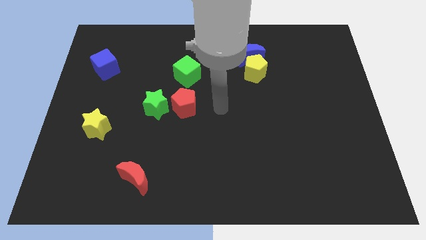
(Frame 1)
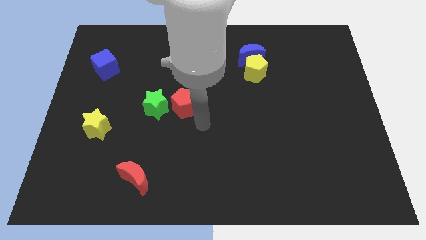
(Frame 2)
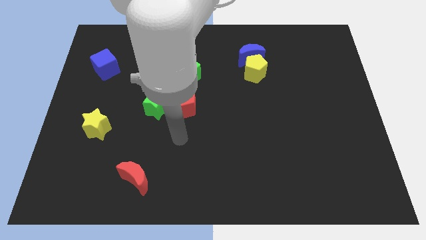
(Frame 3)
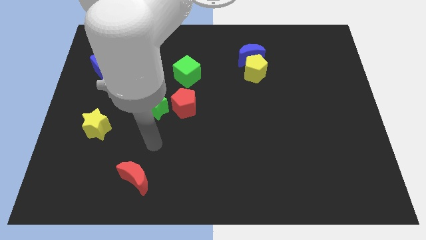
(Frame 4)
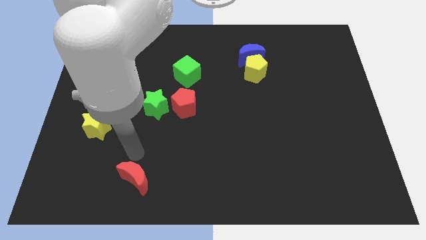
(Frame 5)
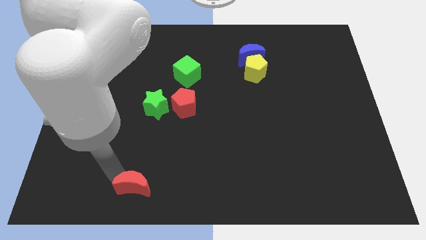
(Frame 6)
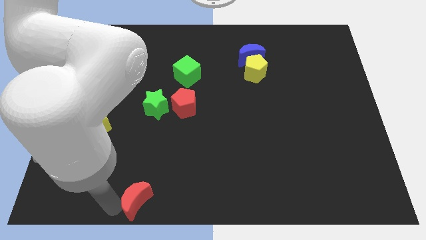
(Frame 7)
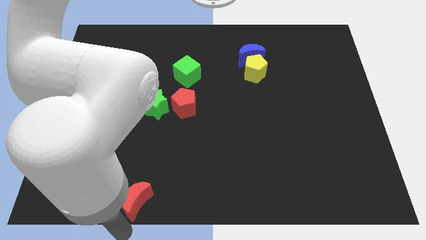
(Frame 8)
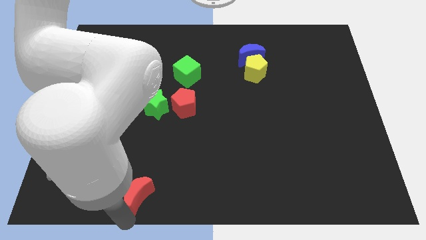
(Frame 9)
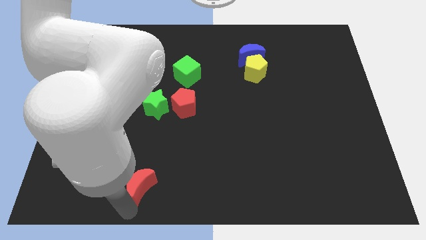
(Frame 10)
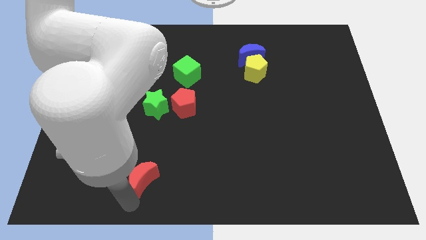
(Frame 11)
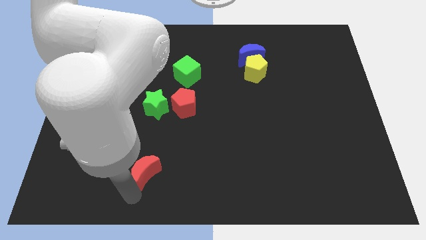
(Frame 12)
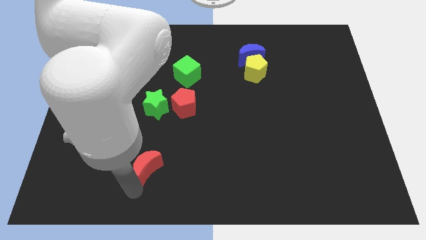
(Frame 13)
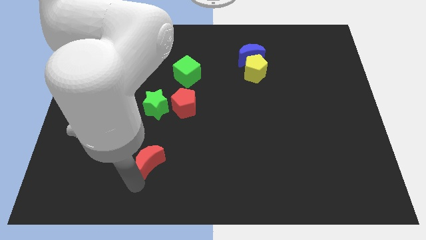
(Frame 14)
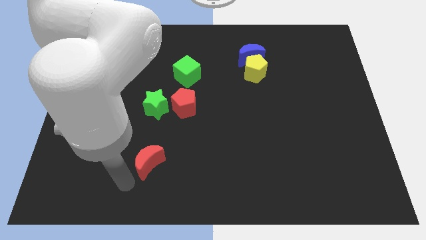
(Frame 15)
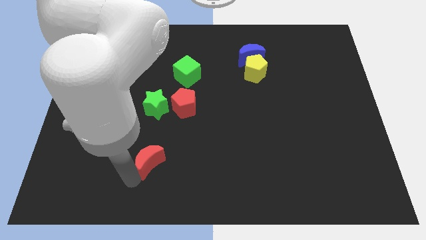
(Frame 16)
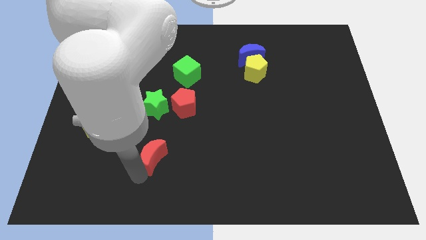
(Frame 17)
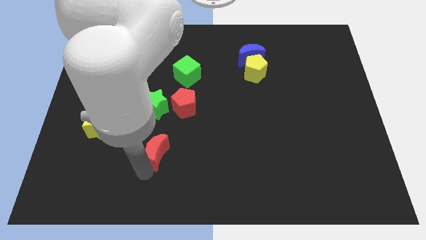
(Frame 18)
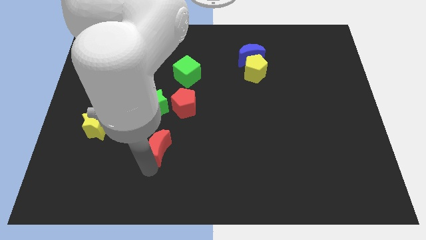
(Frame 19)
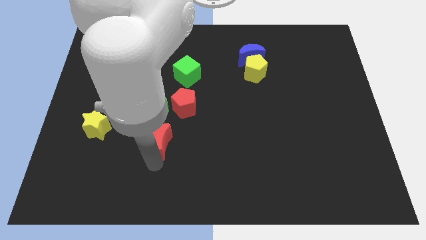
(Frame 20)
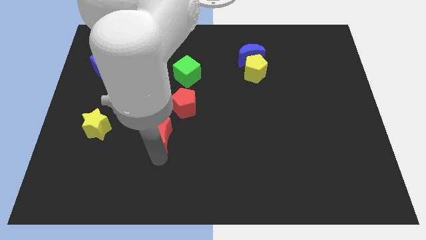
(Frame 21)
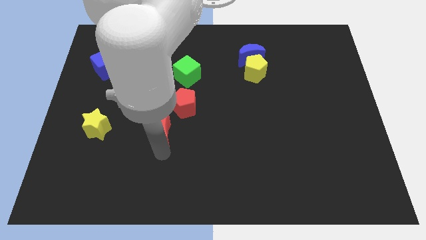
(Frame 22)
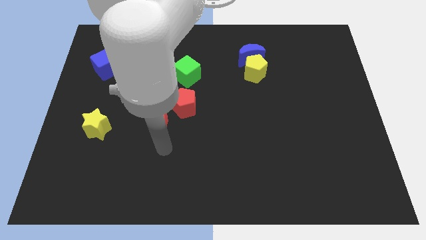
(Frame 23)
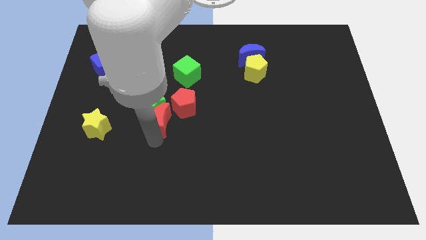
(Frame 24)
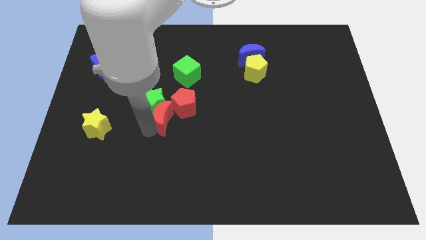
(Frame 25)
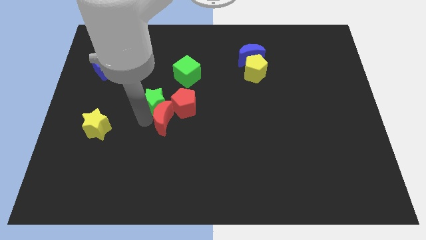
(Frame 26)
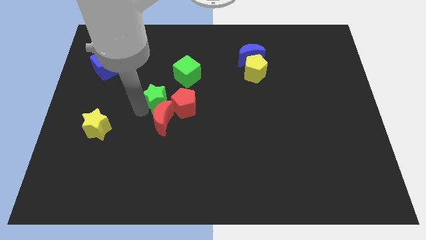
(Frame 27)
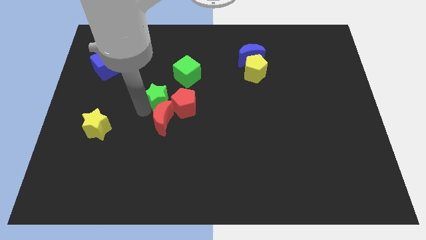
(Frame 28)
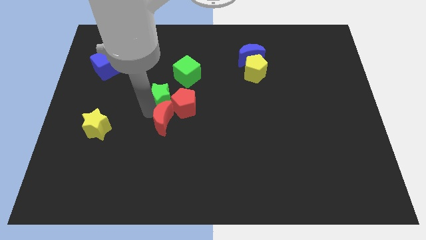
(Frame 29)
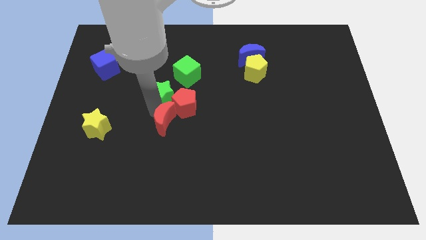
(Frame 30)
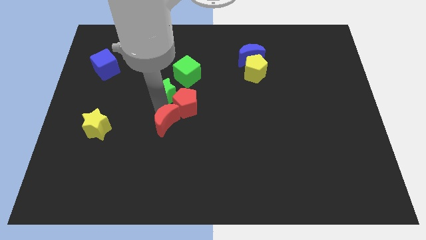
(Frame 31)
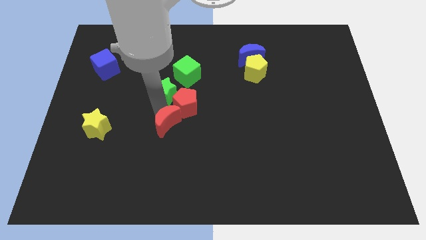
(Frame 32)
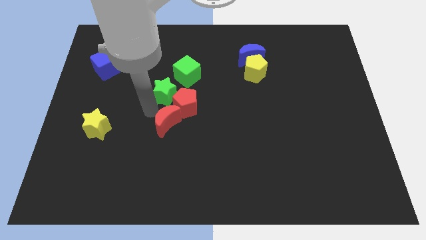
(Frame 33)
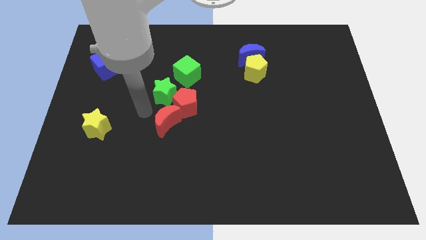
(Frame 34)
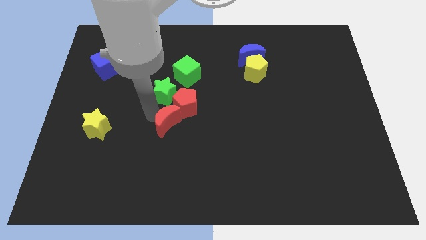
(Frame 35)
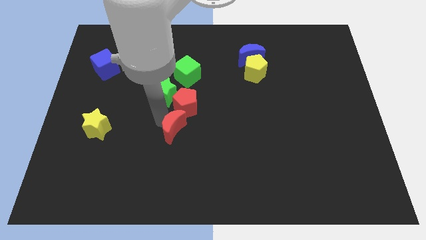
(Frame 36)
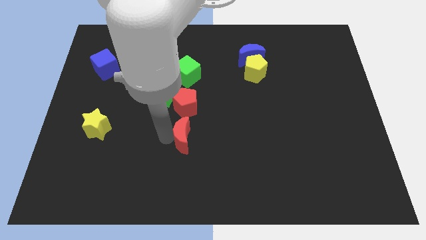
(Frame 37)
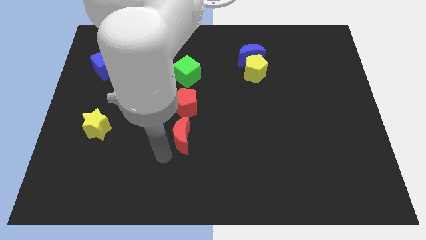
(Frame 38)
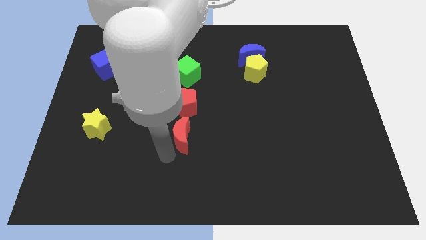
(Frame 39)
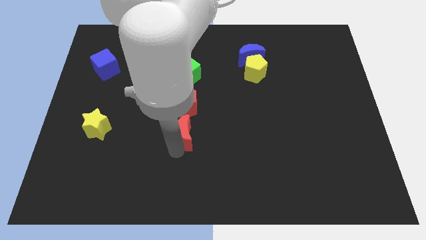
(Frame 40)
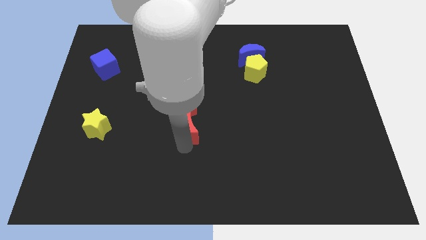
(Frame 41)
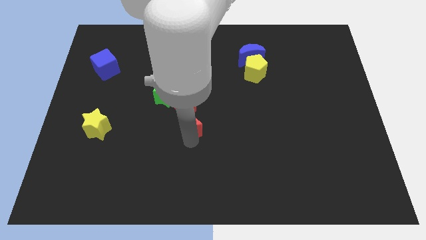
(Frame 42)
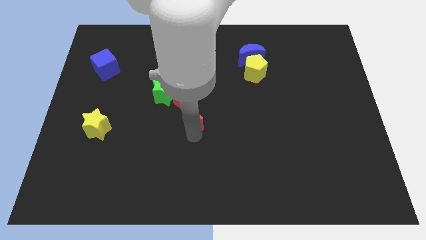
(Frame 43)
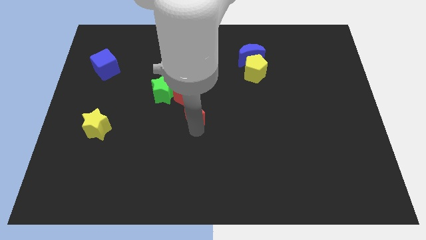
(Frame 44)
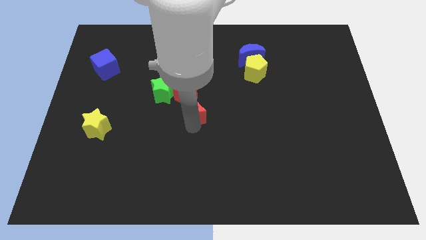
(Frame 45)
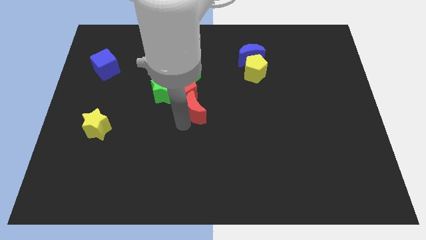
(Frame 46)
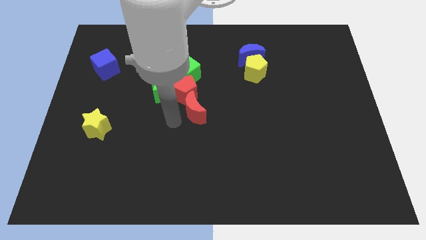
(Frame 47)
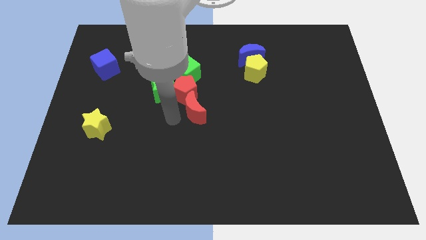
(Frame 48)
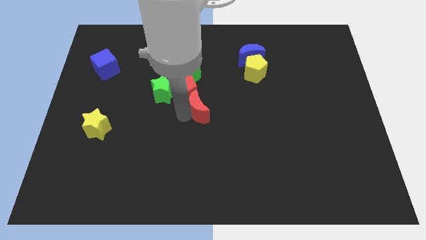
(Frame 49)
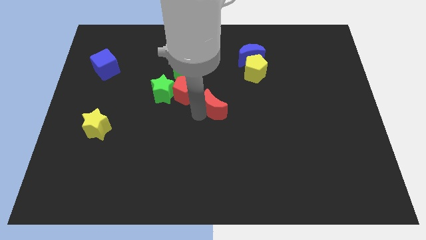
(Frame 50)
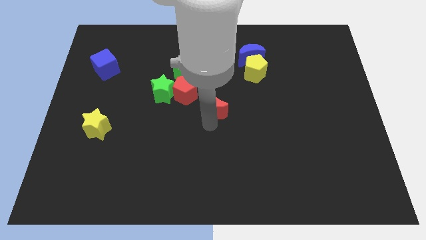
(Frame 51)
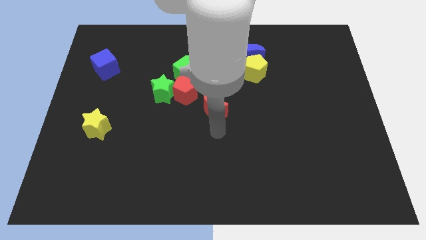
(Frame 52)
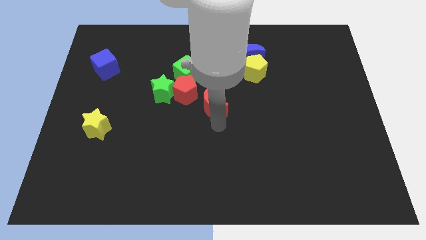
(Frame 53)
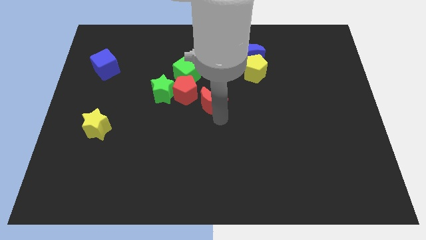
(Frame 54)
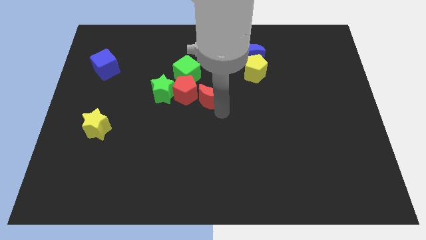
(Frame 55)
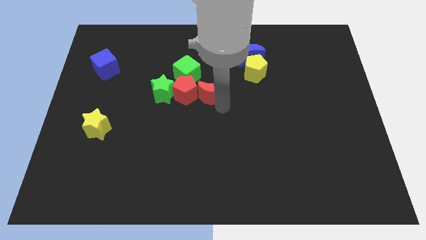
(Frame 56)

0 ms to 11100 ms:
put the red moon diagonally up and to the right of the red pentagon

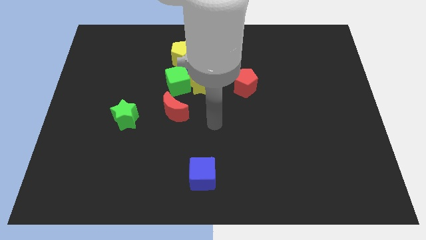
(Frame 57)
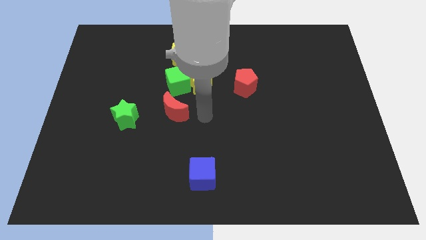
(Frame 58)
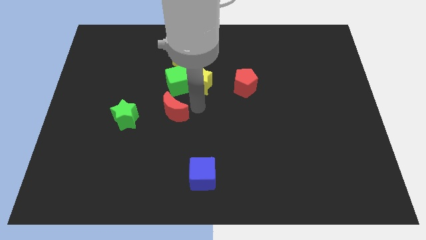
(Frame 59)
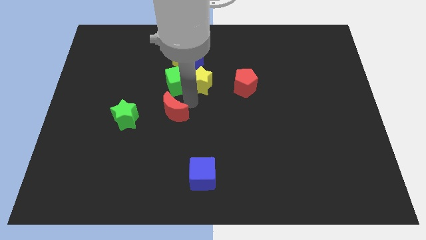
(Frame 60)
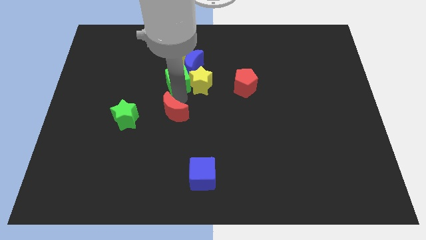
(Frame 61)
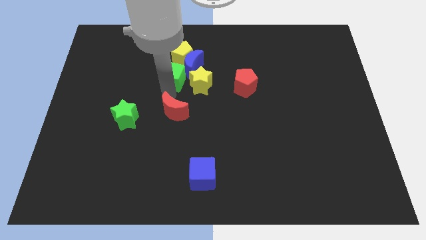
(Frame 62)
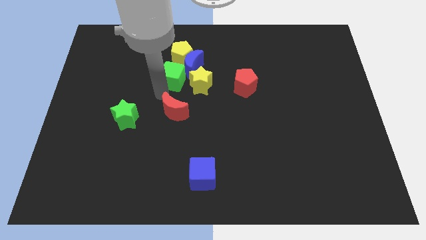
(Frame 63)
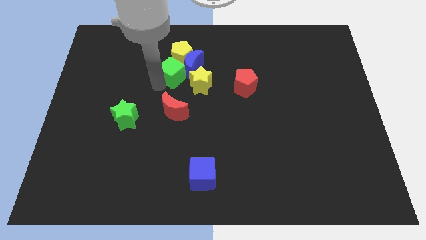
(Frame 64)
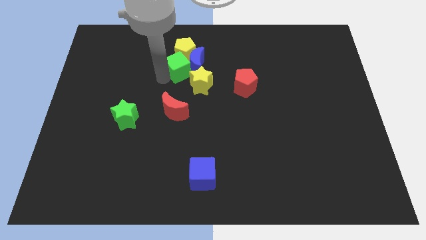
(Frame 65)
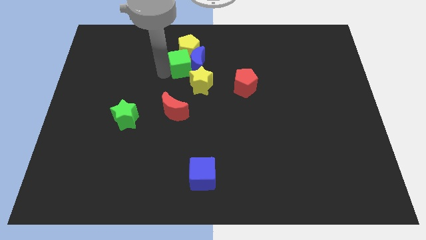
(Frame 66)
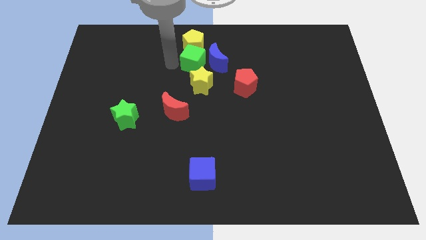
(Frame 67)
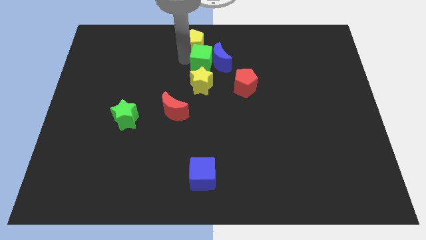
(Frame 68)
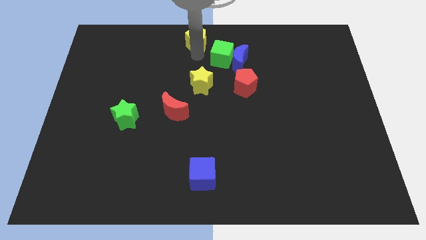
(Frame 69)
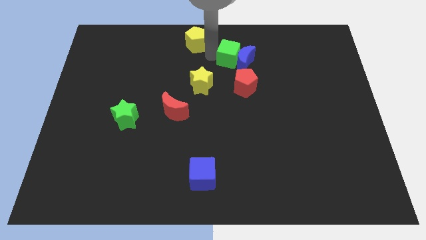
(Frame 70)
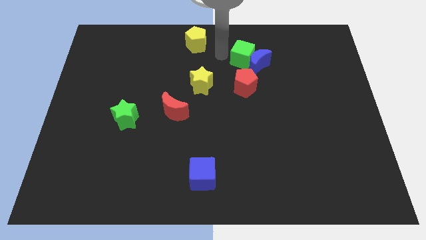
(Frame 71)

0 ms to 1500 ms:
slide the blue moon to the top right of the red pentagon
